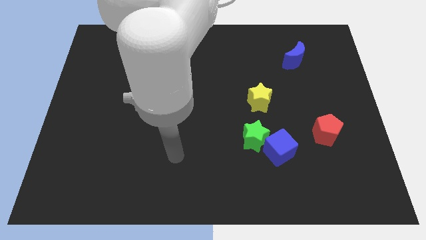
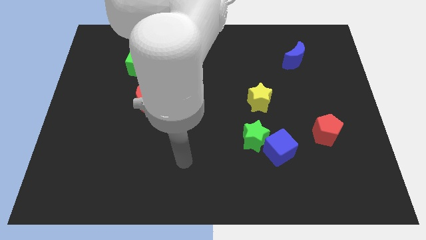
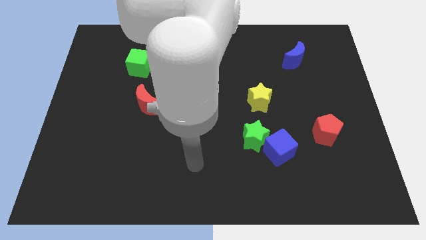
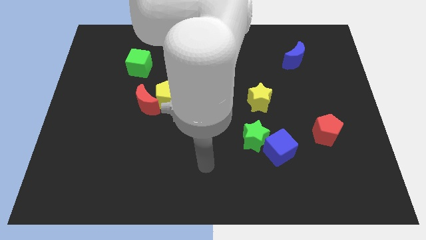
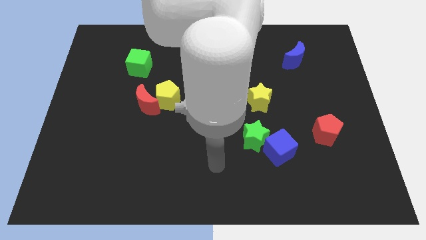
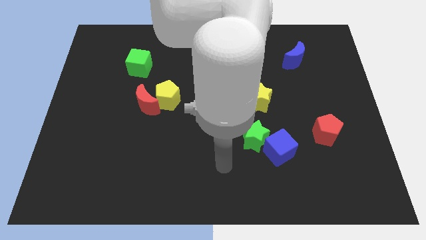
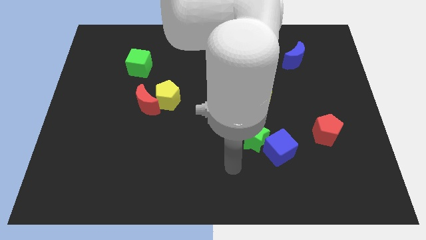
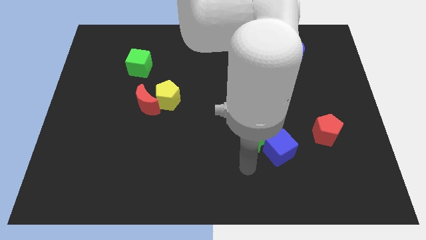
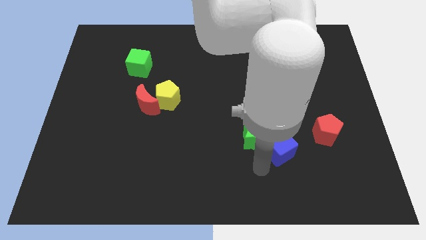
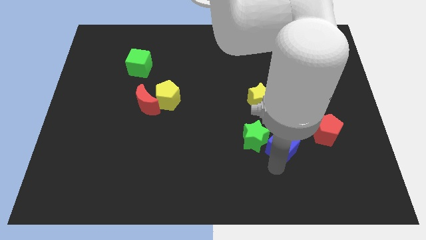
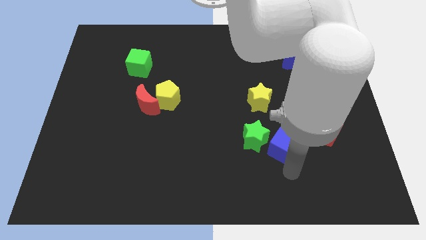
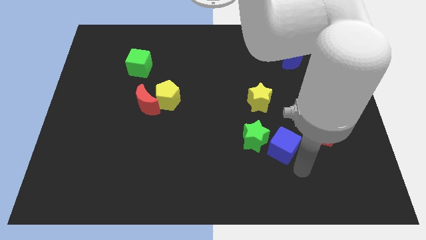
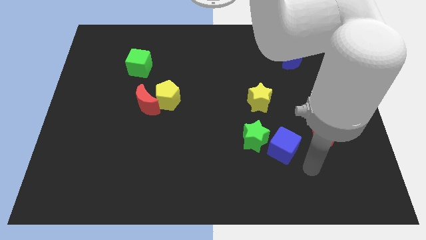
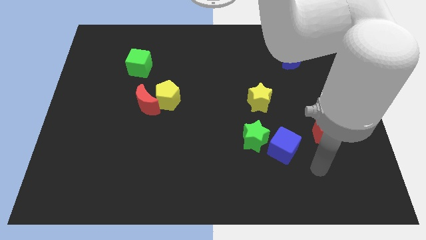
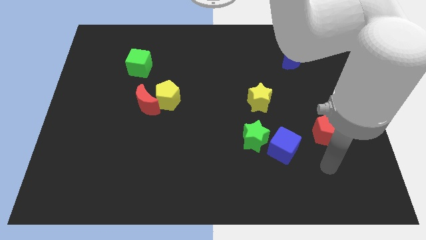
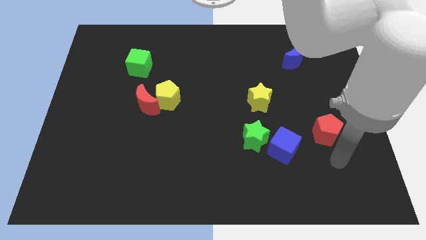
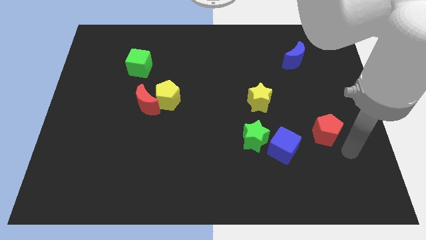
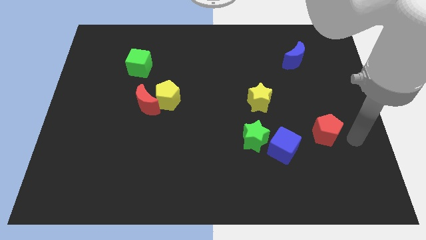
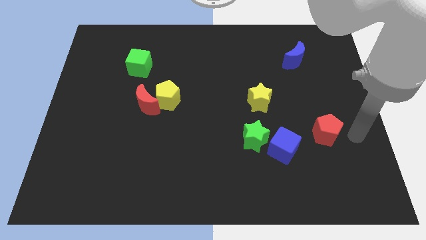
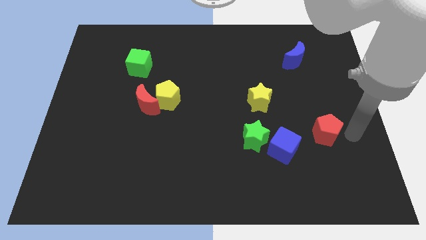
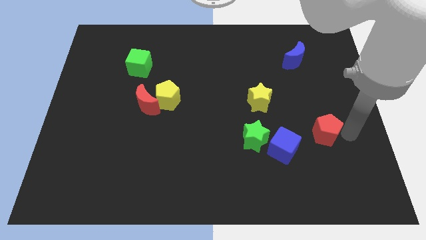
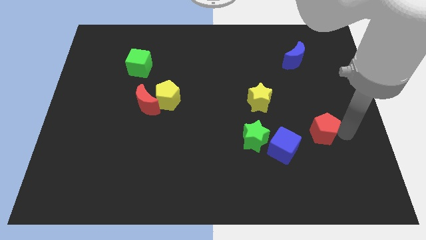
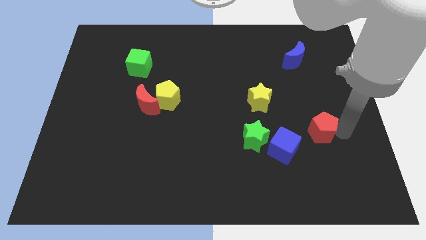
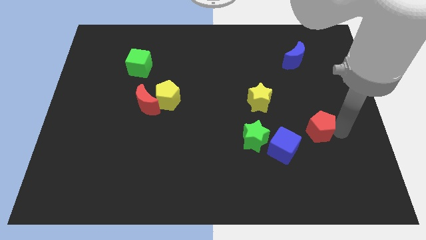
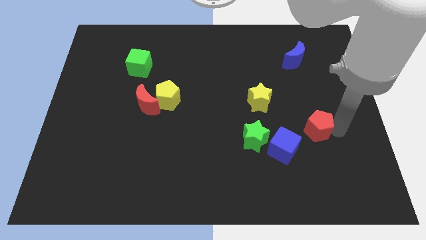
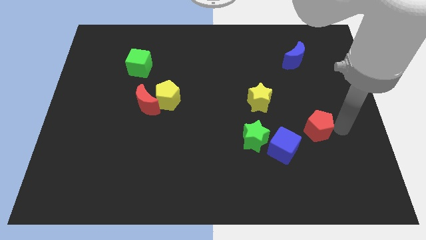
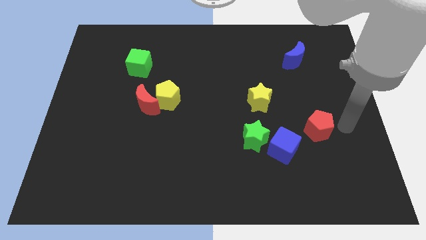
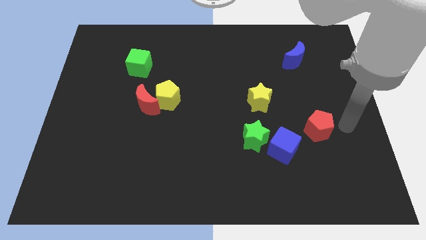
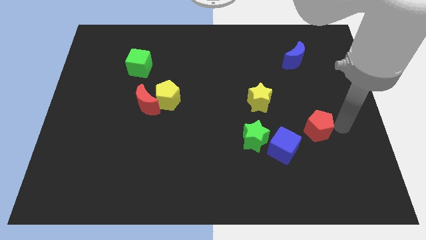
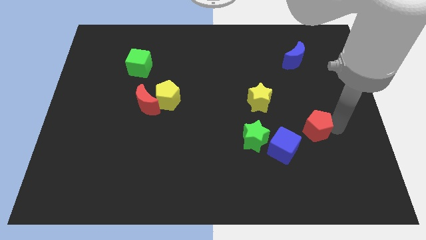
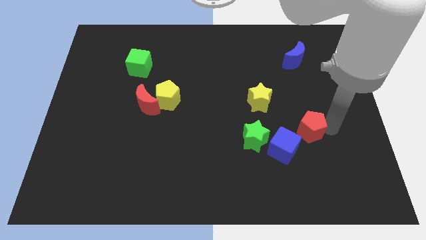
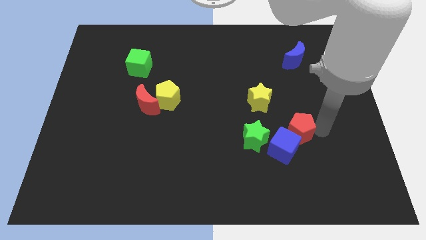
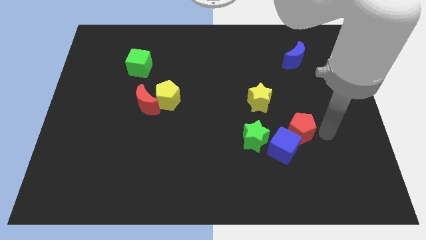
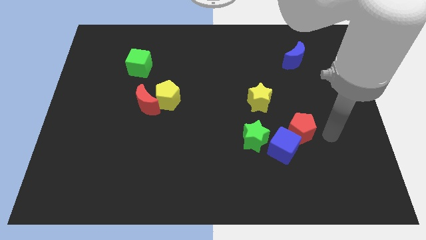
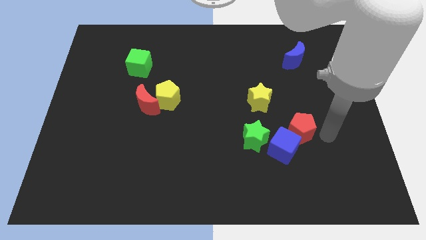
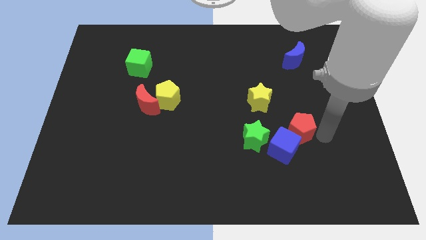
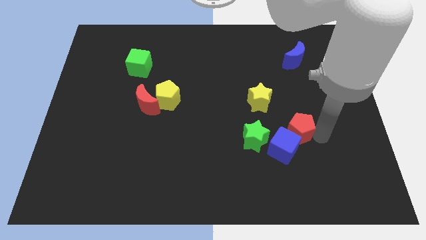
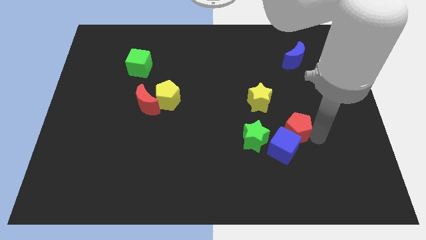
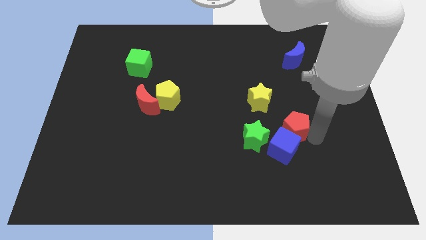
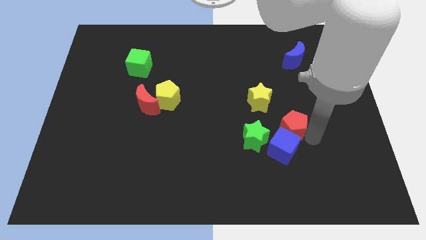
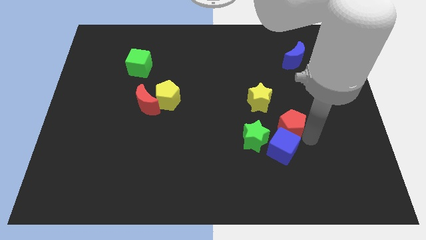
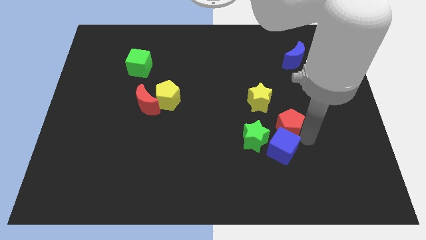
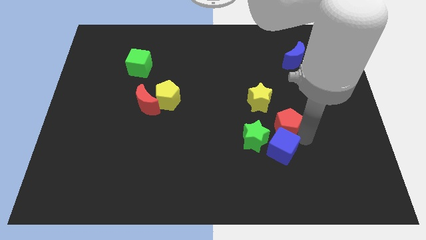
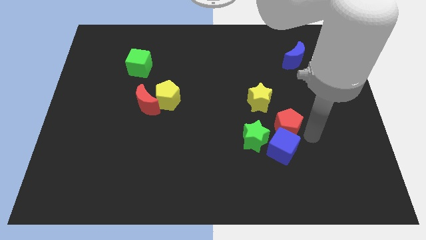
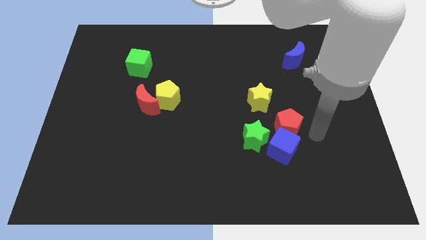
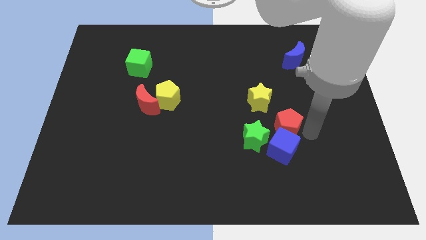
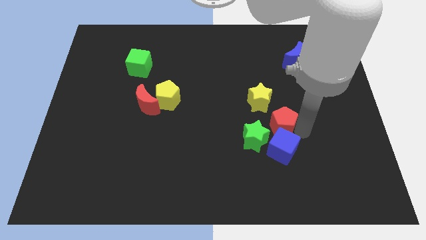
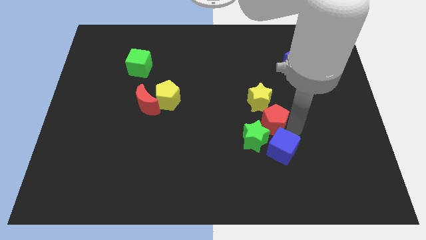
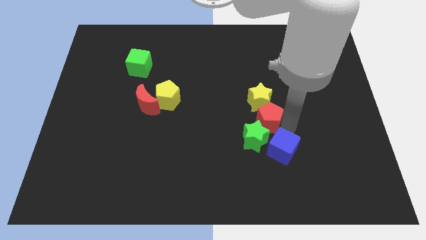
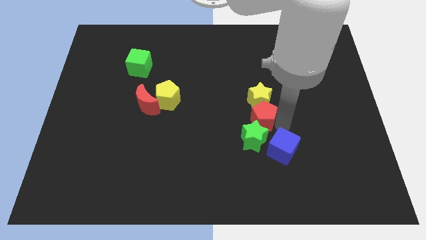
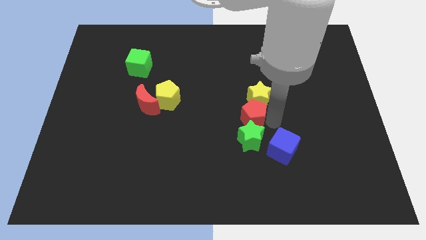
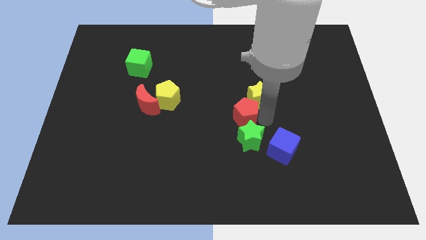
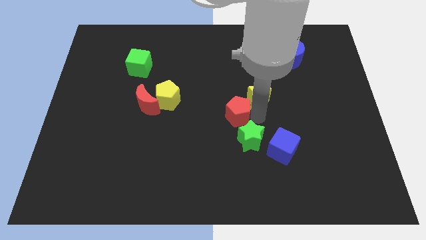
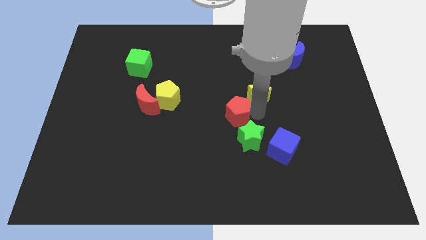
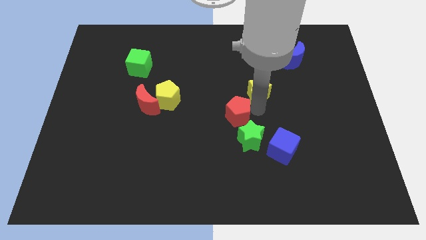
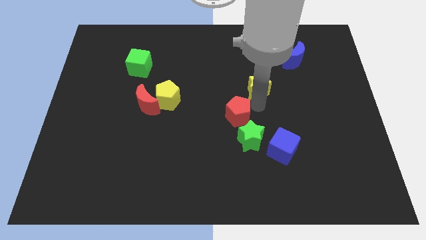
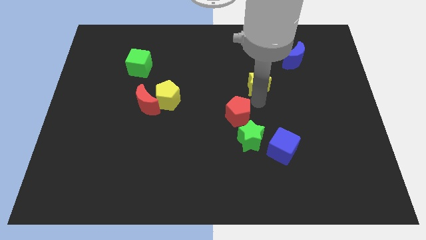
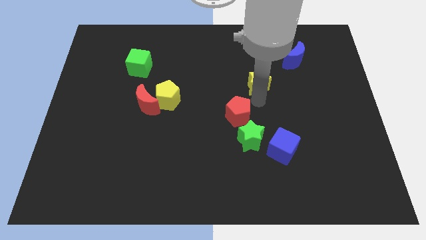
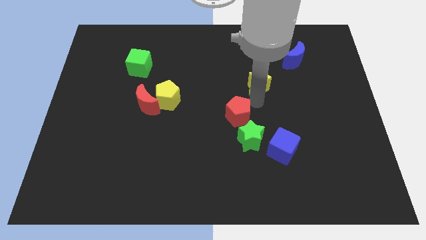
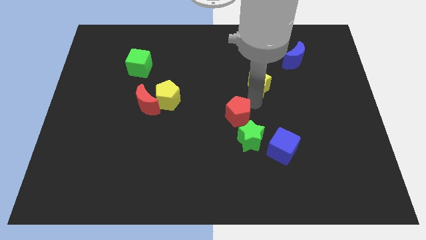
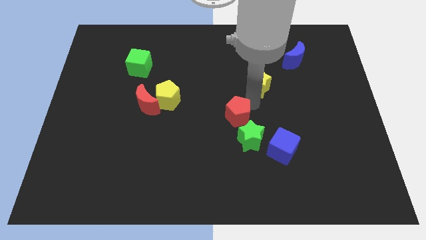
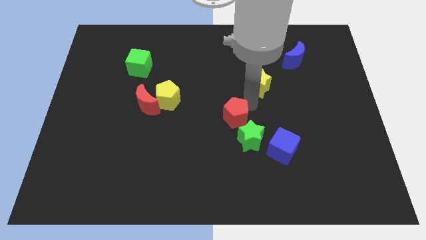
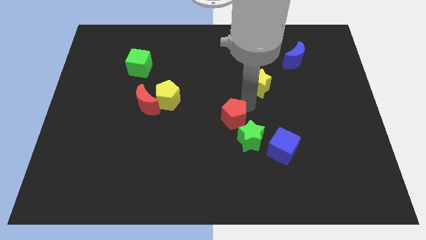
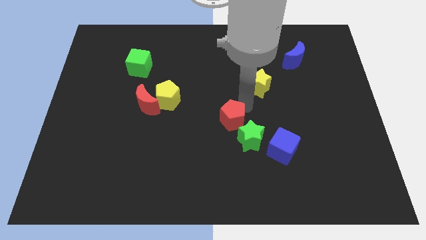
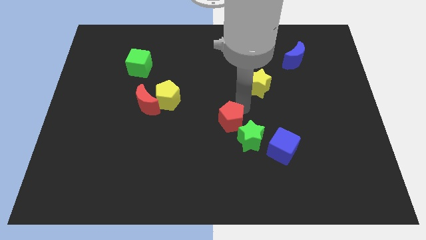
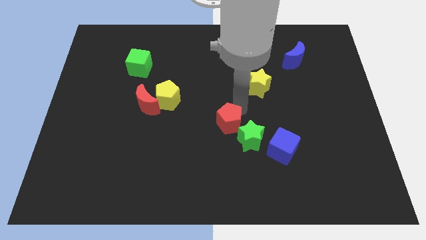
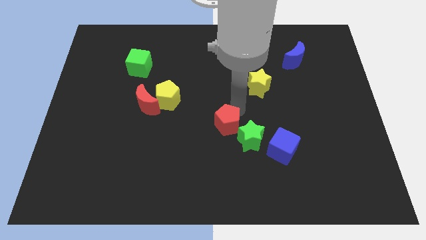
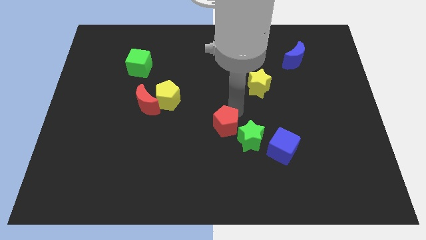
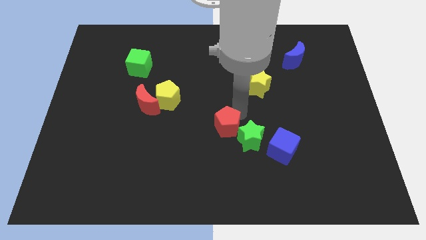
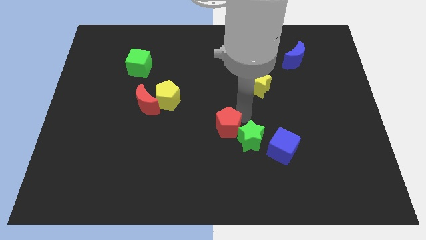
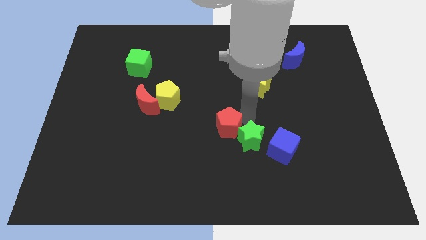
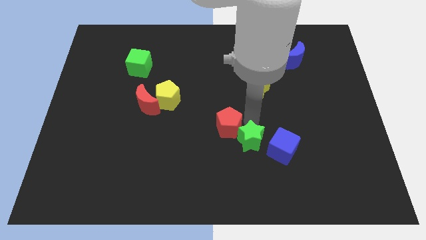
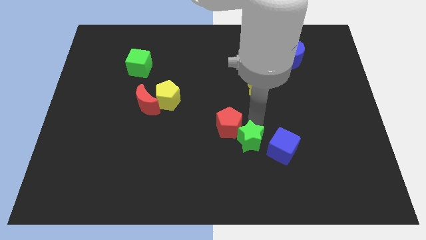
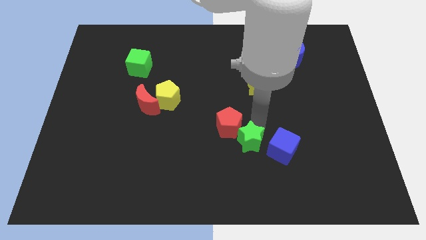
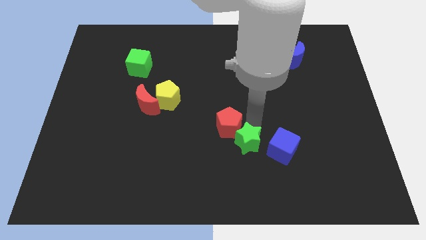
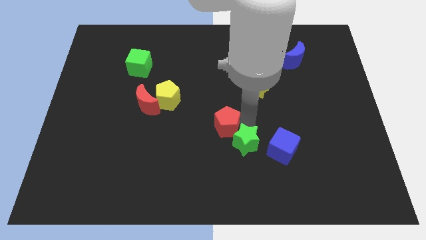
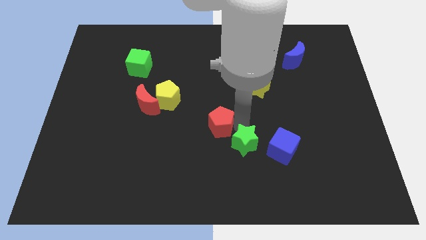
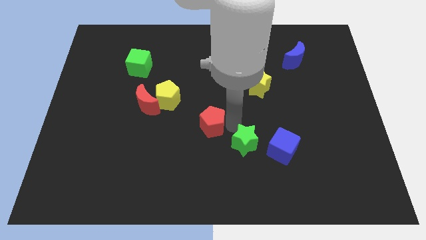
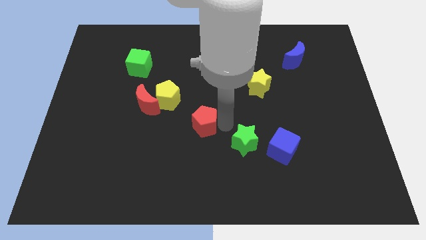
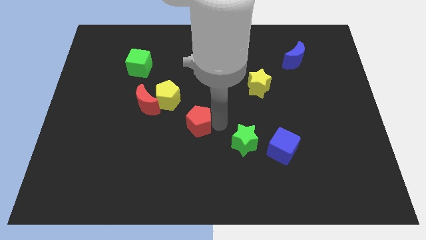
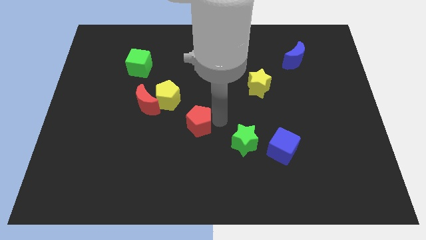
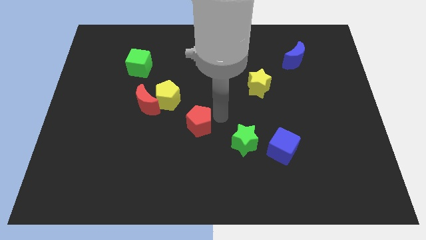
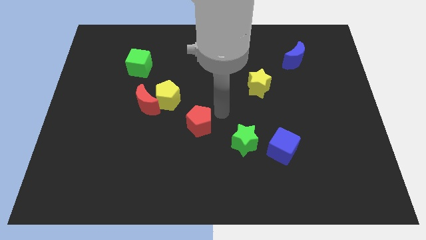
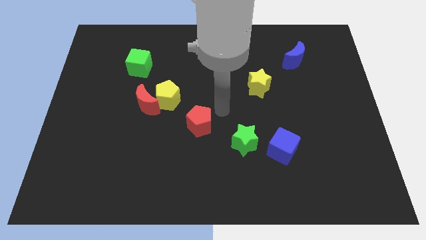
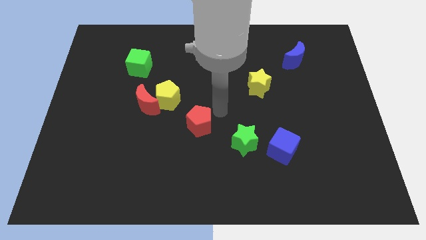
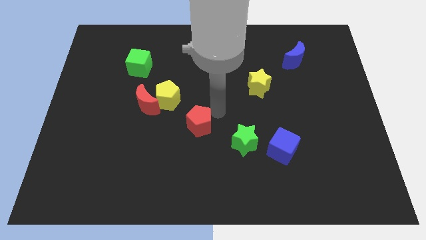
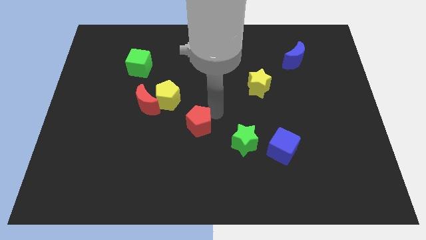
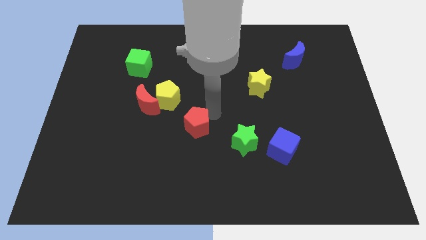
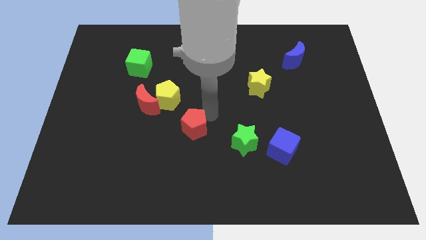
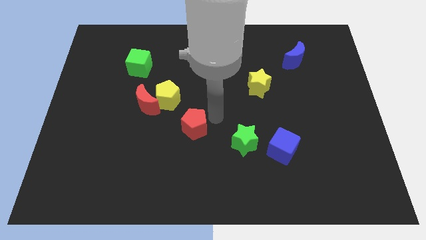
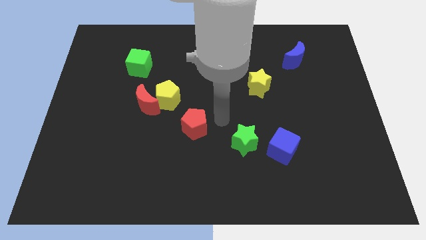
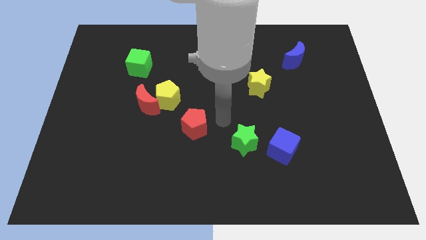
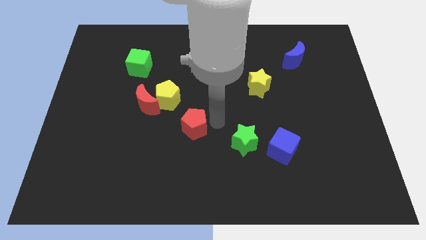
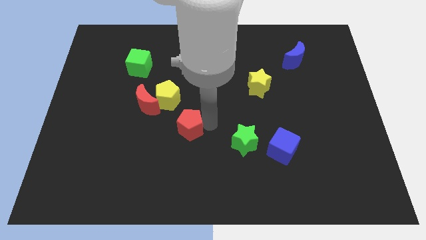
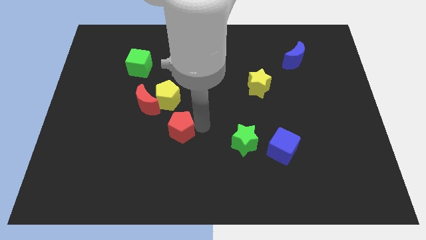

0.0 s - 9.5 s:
move the red pentagon to the bottom side of the yellow pentagon
